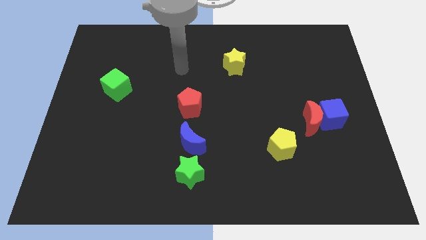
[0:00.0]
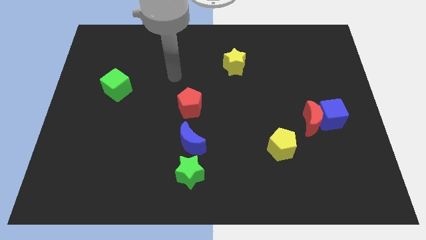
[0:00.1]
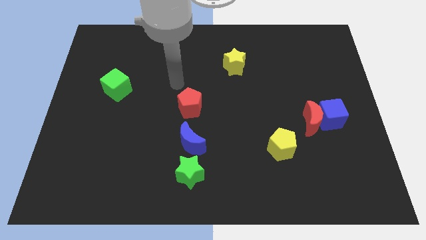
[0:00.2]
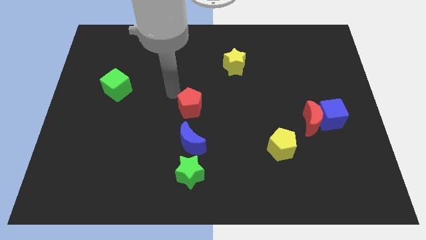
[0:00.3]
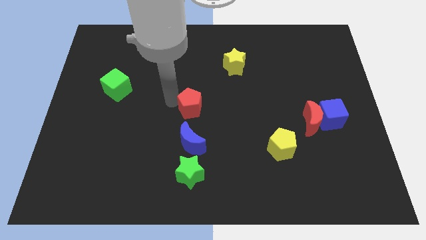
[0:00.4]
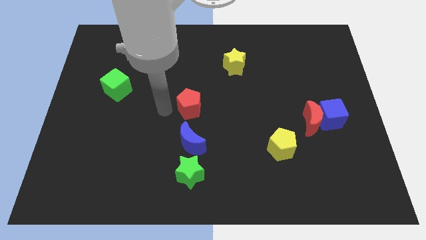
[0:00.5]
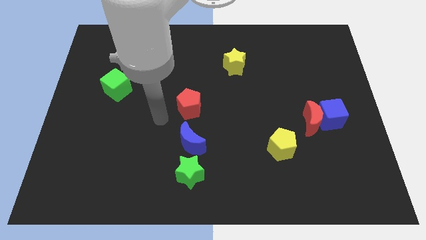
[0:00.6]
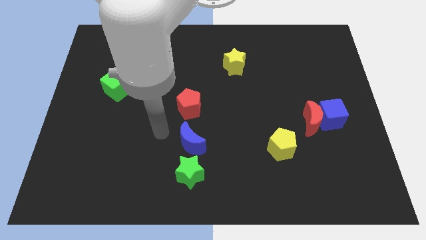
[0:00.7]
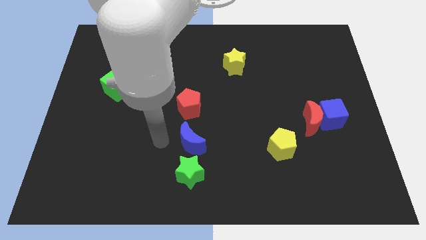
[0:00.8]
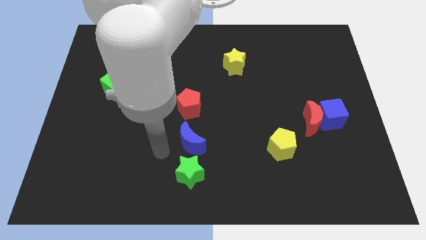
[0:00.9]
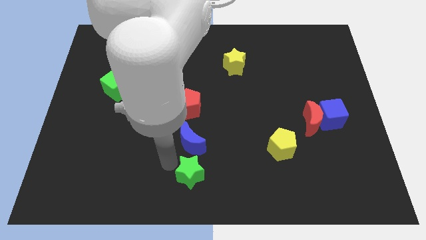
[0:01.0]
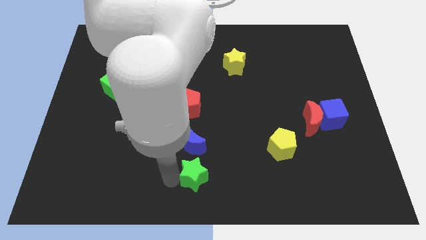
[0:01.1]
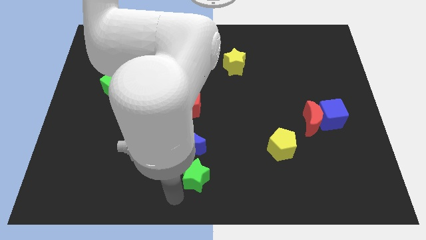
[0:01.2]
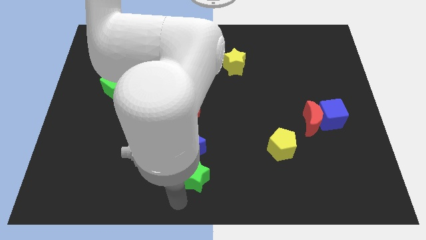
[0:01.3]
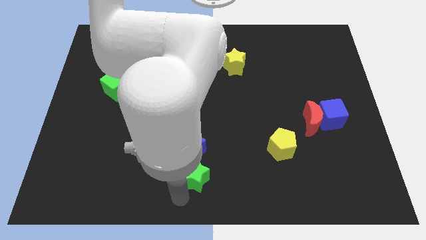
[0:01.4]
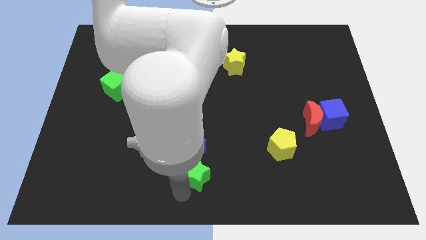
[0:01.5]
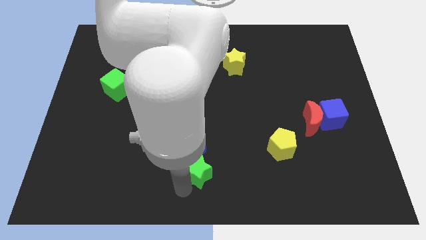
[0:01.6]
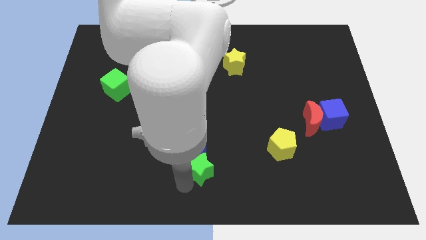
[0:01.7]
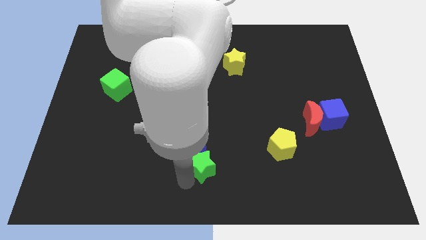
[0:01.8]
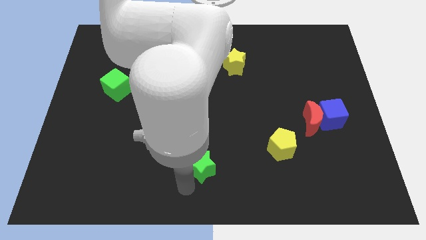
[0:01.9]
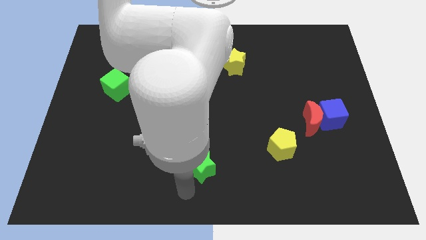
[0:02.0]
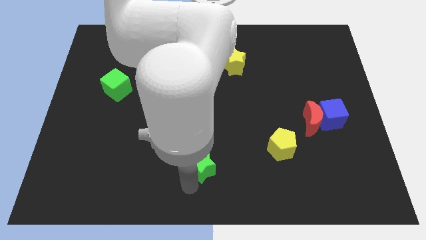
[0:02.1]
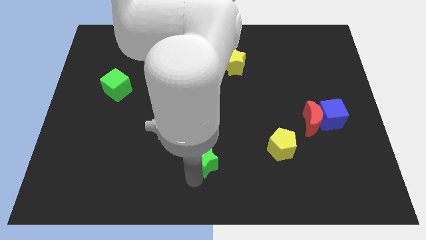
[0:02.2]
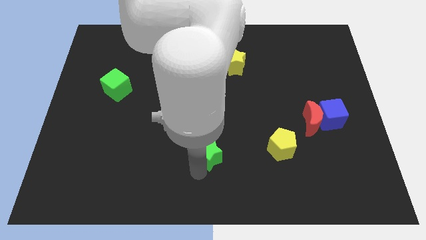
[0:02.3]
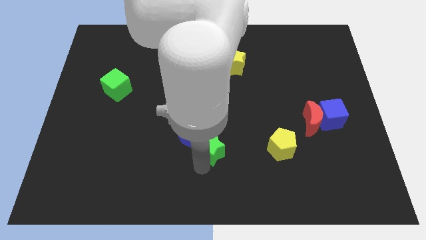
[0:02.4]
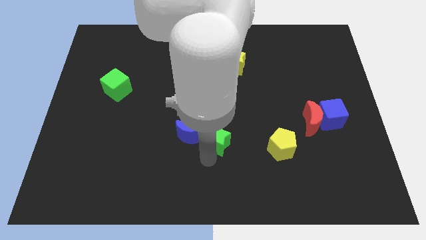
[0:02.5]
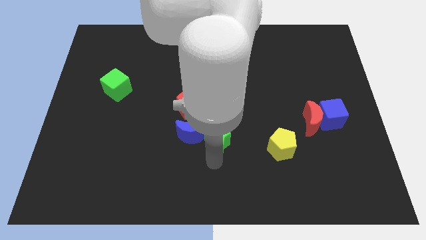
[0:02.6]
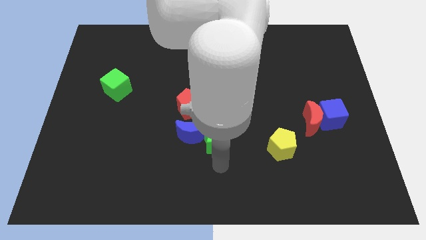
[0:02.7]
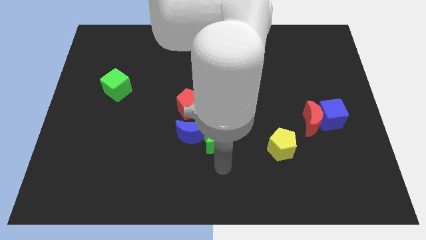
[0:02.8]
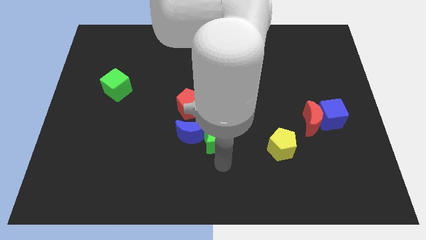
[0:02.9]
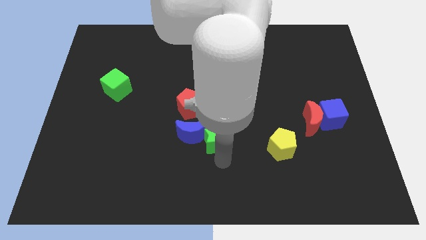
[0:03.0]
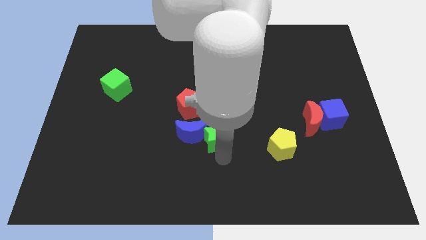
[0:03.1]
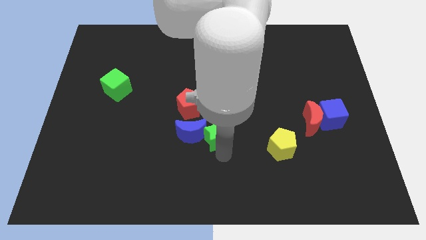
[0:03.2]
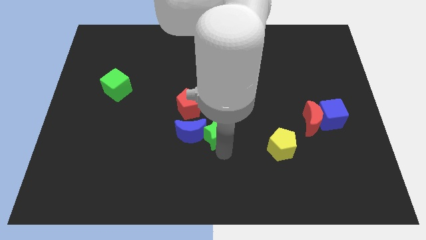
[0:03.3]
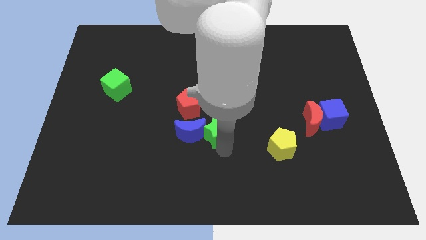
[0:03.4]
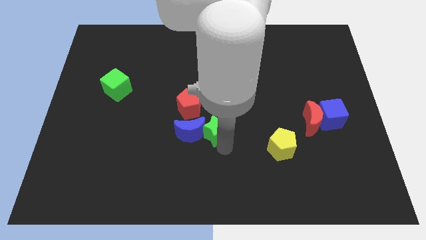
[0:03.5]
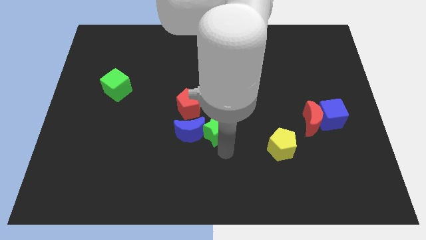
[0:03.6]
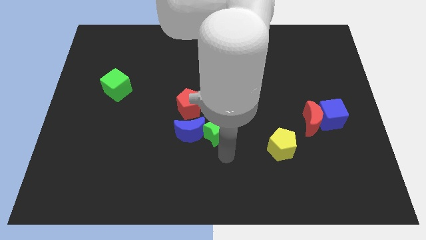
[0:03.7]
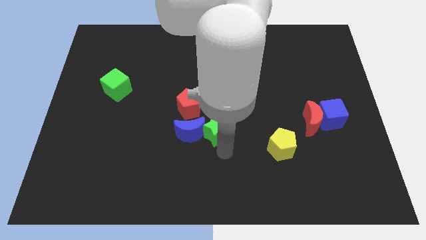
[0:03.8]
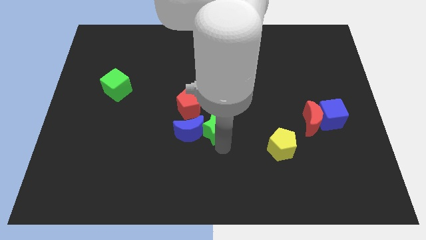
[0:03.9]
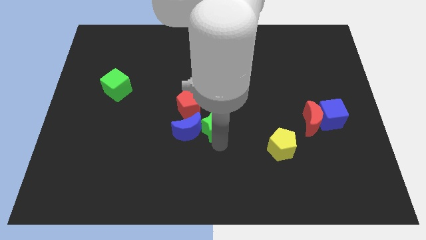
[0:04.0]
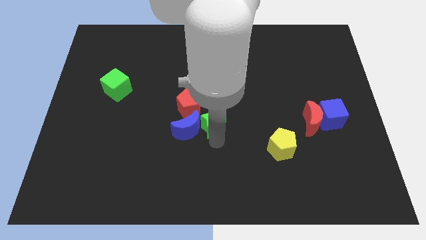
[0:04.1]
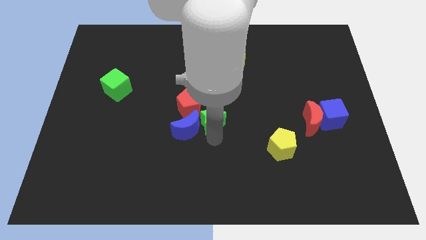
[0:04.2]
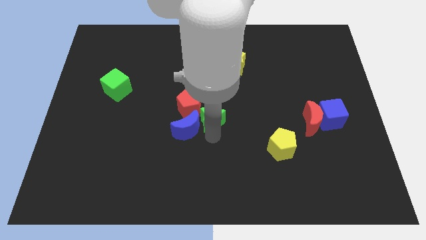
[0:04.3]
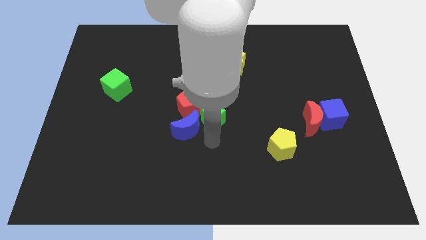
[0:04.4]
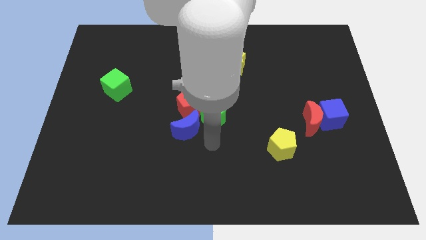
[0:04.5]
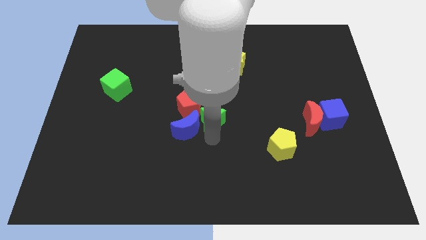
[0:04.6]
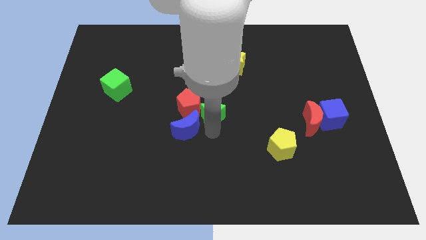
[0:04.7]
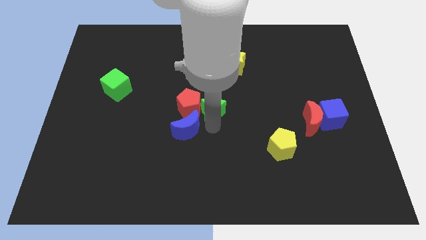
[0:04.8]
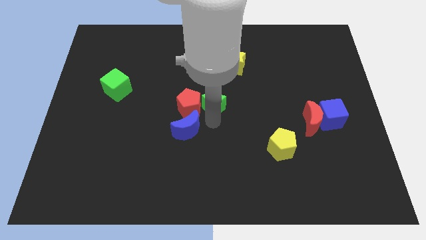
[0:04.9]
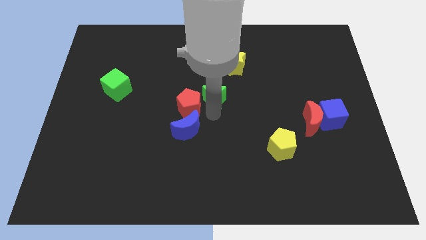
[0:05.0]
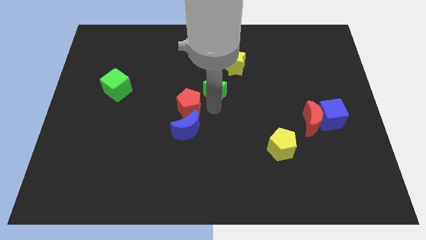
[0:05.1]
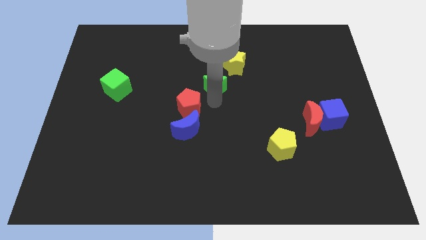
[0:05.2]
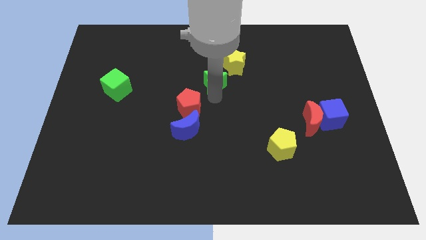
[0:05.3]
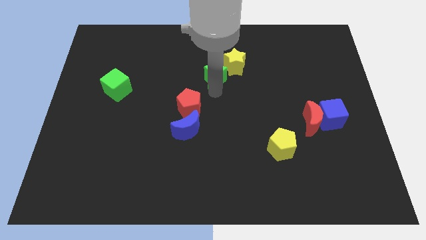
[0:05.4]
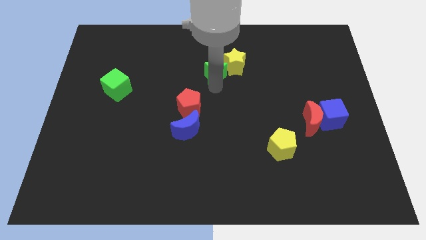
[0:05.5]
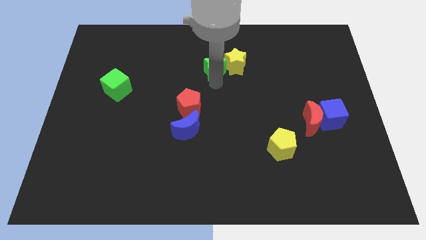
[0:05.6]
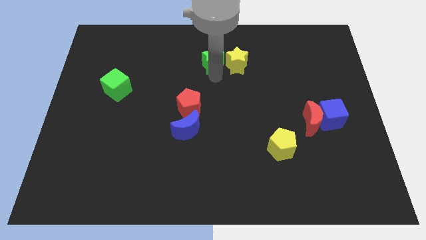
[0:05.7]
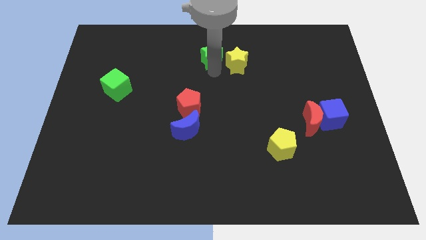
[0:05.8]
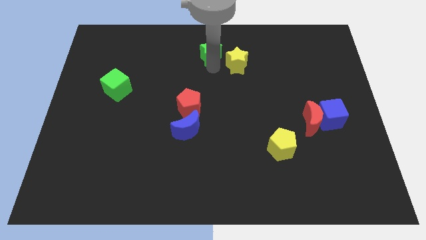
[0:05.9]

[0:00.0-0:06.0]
slide the green star to the top side
